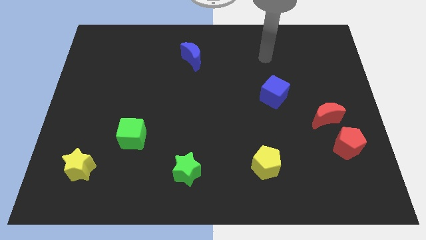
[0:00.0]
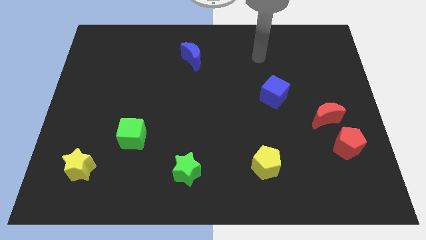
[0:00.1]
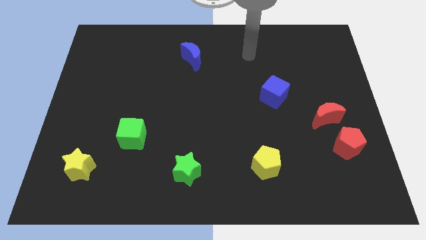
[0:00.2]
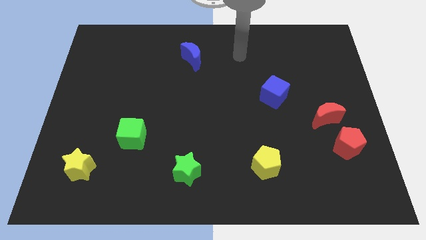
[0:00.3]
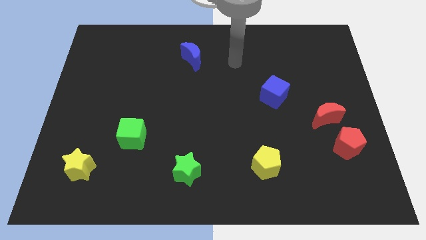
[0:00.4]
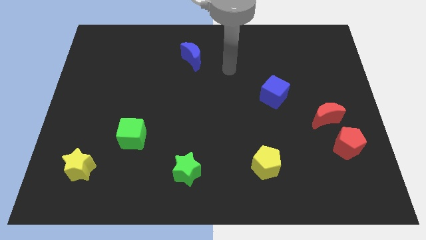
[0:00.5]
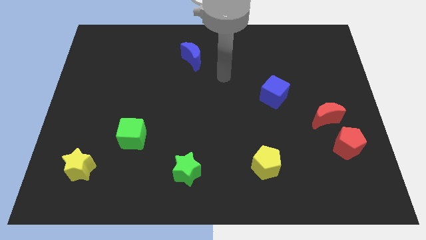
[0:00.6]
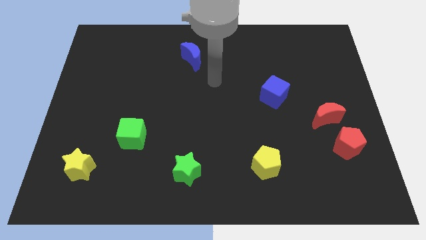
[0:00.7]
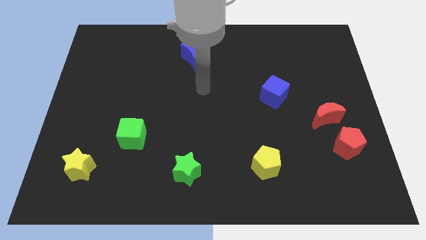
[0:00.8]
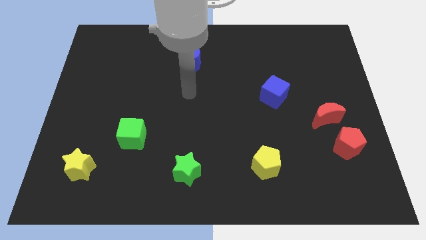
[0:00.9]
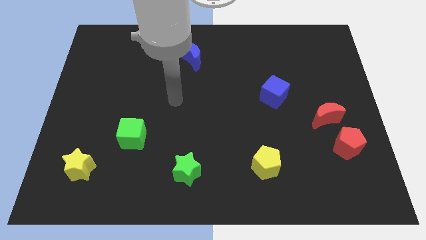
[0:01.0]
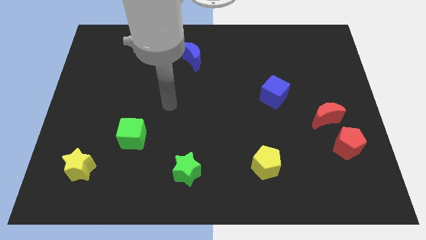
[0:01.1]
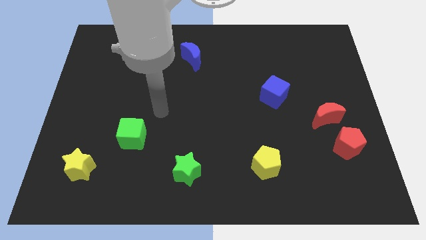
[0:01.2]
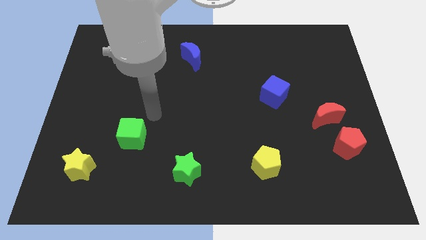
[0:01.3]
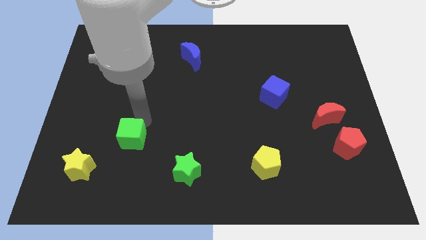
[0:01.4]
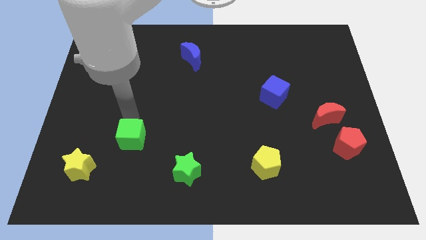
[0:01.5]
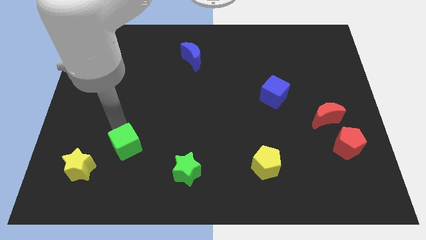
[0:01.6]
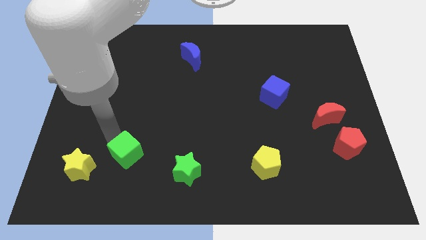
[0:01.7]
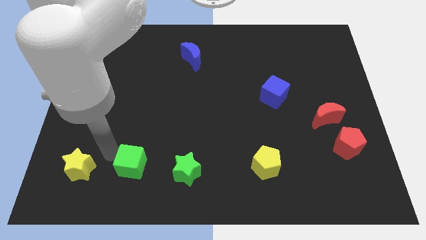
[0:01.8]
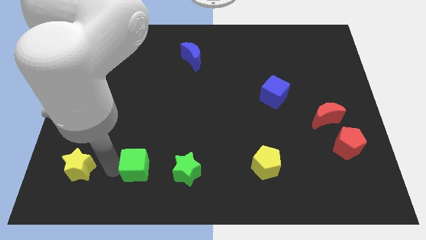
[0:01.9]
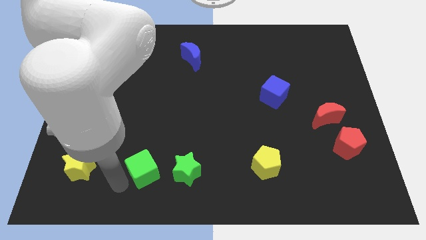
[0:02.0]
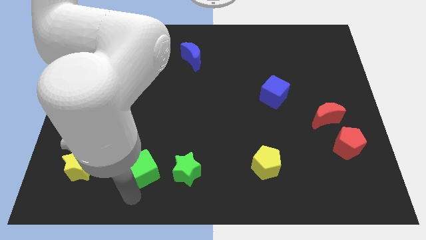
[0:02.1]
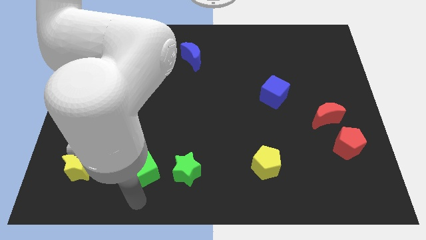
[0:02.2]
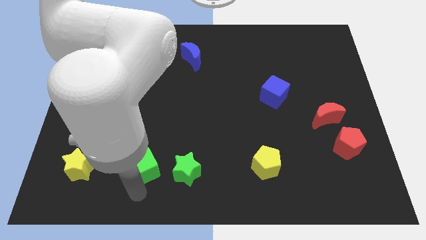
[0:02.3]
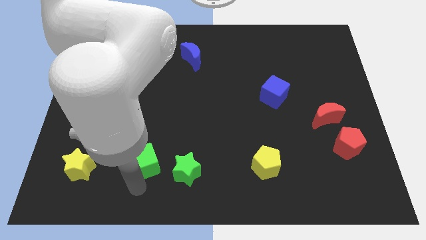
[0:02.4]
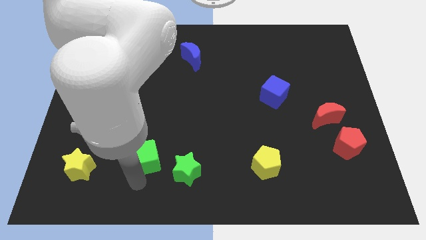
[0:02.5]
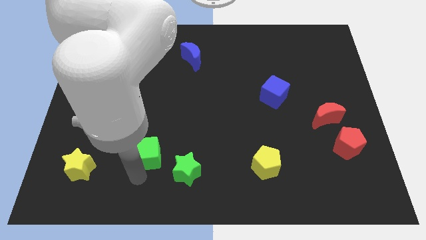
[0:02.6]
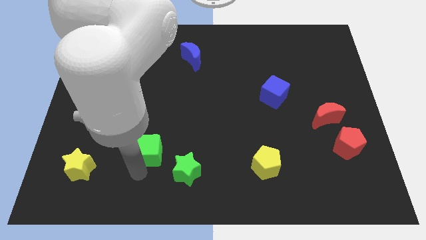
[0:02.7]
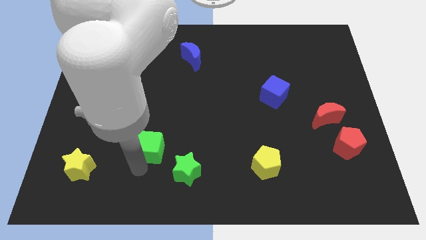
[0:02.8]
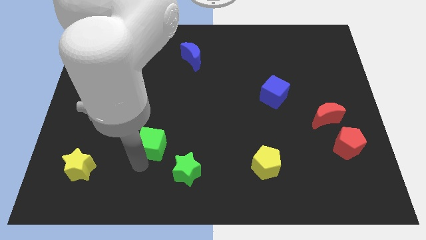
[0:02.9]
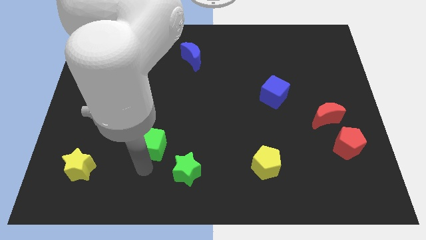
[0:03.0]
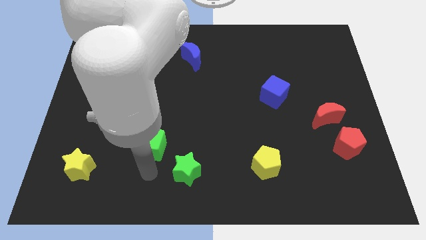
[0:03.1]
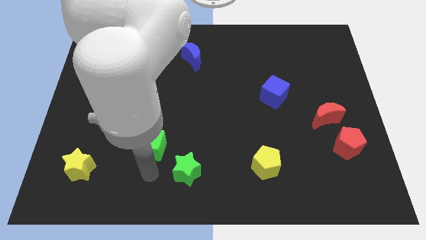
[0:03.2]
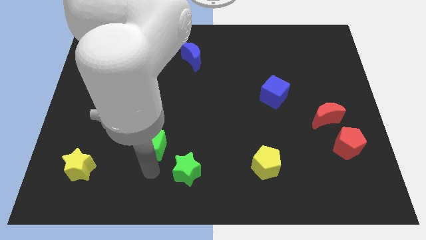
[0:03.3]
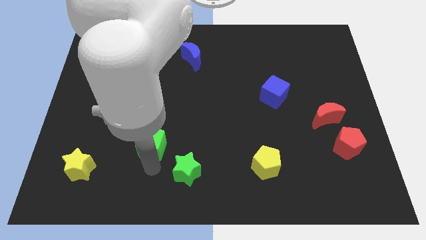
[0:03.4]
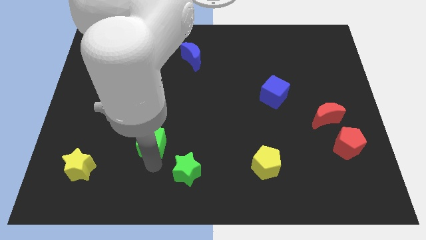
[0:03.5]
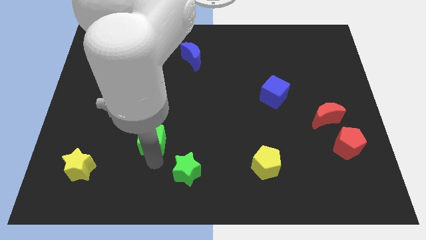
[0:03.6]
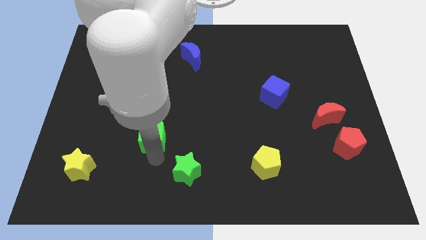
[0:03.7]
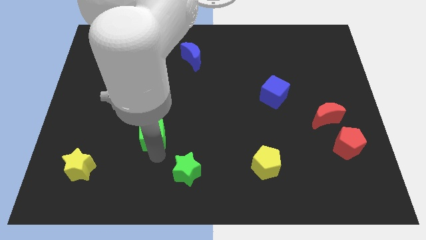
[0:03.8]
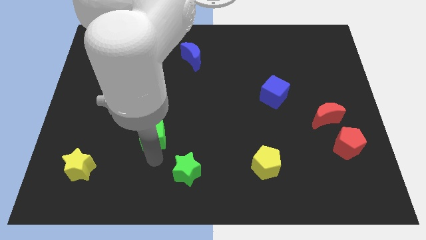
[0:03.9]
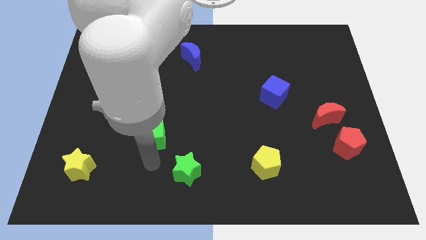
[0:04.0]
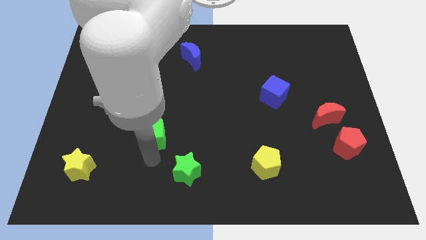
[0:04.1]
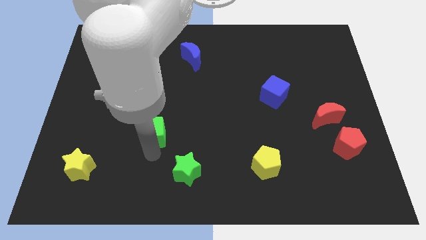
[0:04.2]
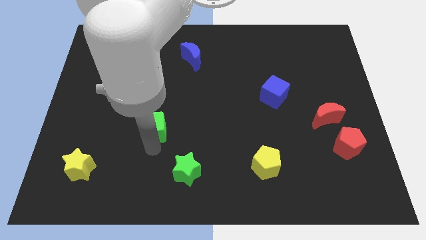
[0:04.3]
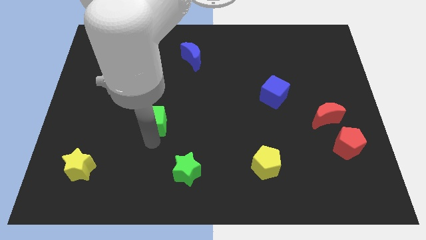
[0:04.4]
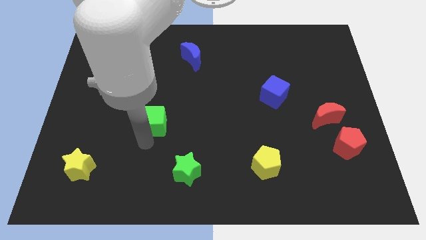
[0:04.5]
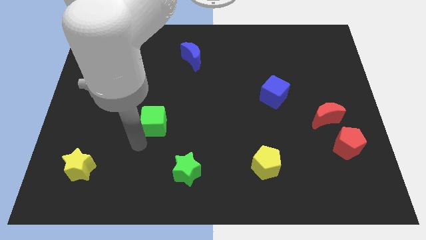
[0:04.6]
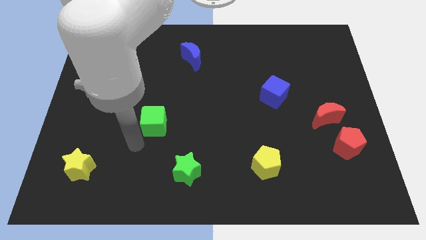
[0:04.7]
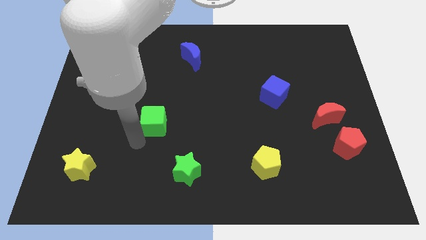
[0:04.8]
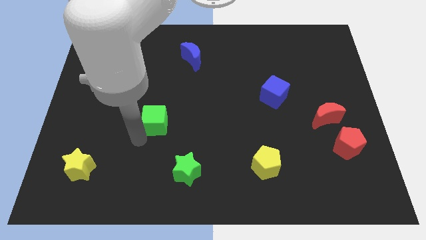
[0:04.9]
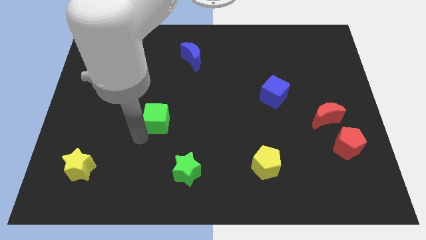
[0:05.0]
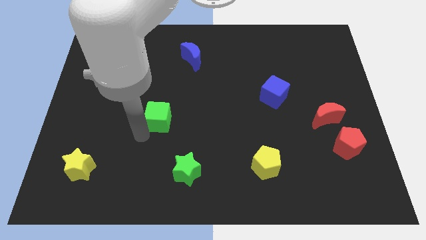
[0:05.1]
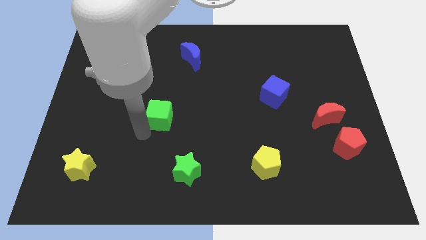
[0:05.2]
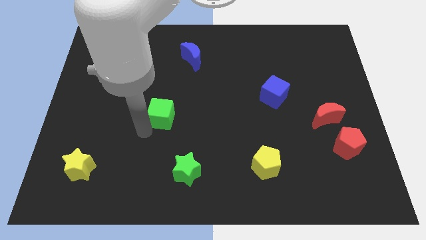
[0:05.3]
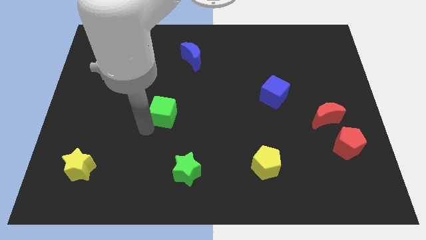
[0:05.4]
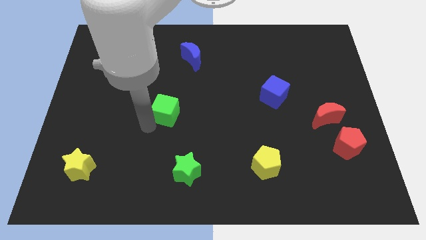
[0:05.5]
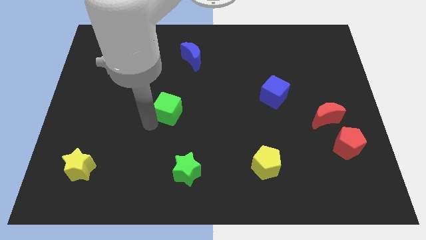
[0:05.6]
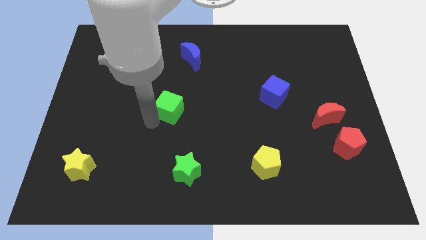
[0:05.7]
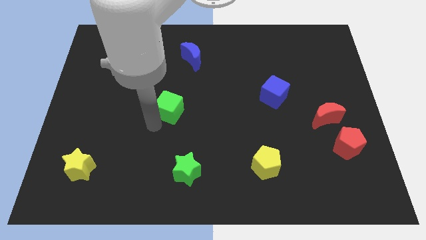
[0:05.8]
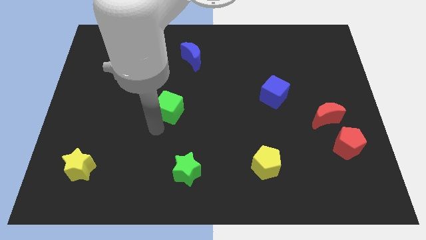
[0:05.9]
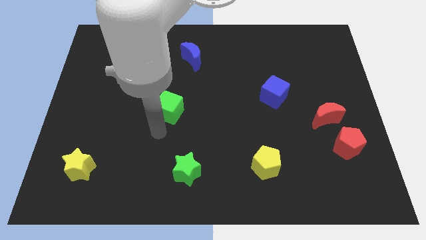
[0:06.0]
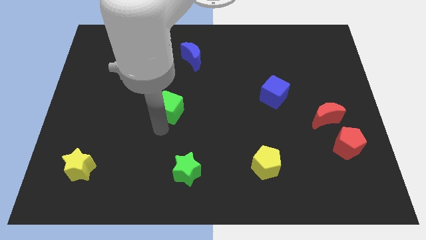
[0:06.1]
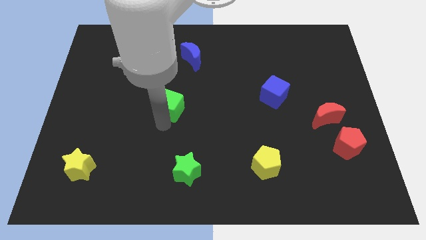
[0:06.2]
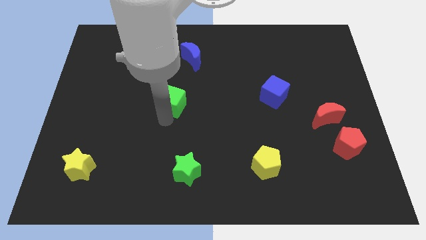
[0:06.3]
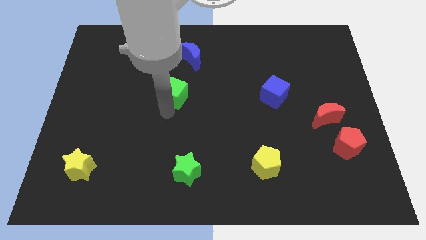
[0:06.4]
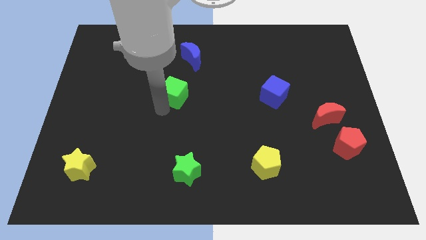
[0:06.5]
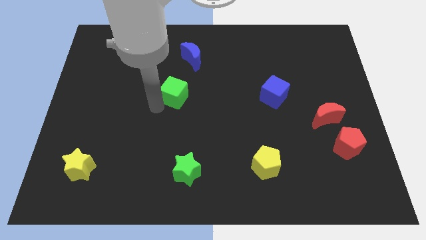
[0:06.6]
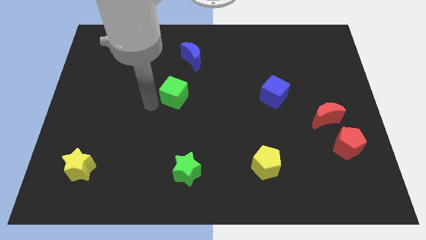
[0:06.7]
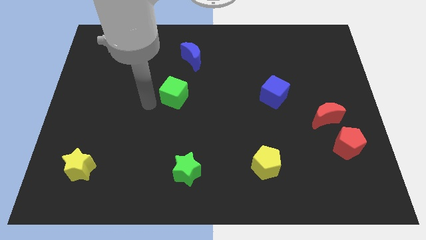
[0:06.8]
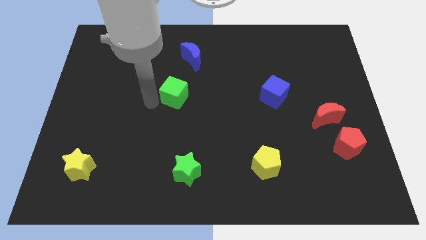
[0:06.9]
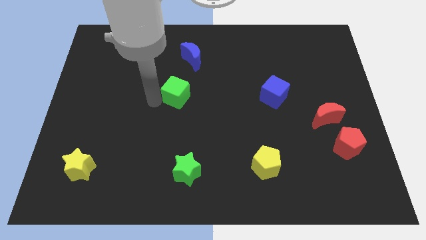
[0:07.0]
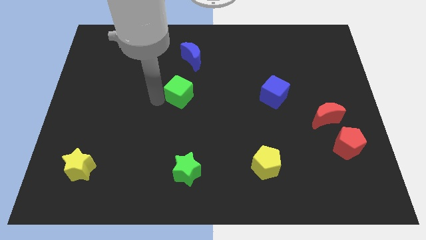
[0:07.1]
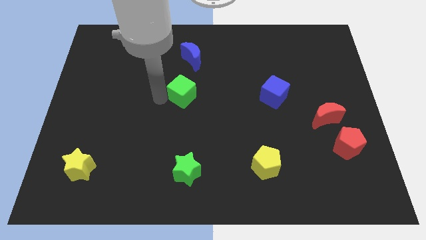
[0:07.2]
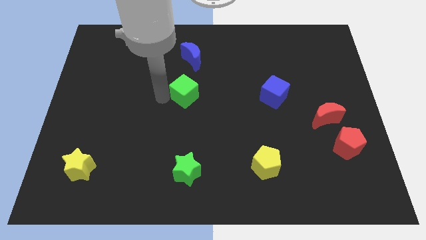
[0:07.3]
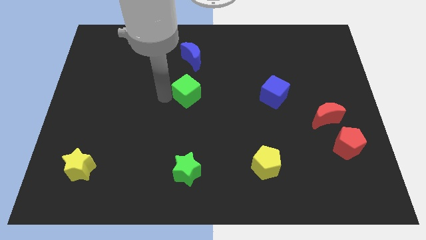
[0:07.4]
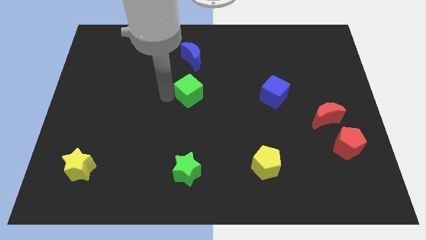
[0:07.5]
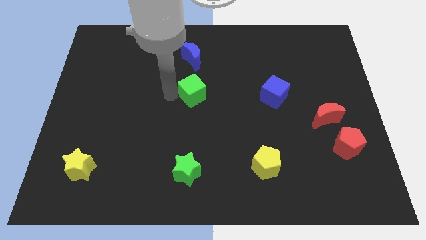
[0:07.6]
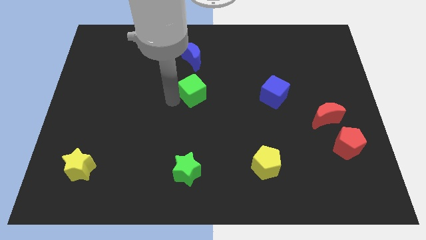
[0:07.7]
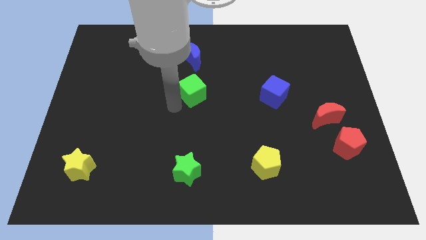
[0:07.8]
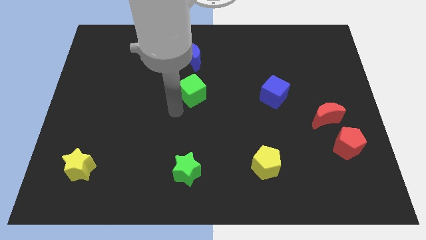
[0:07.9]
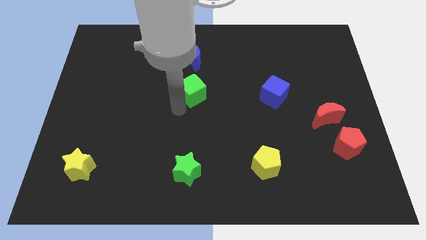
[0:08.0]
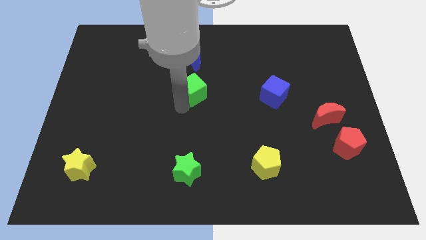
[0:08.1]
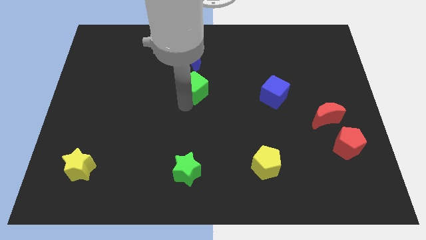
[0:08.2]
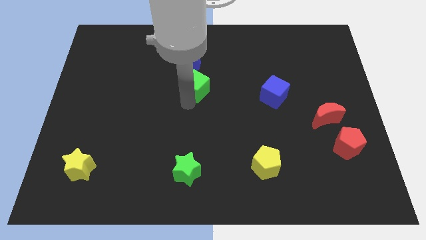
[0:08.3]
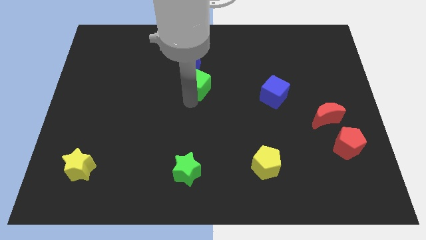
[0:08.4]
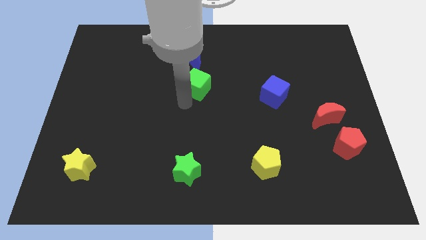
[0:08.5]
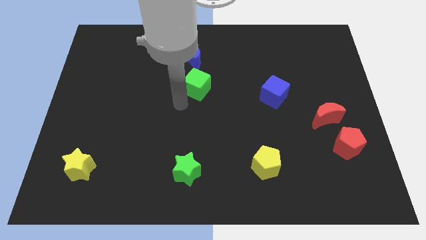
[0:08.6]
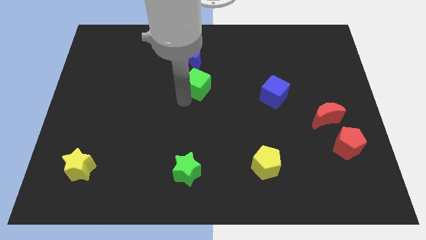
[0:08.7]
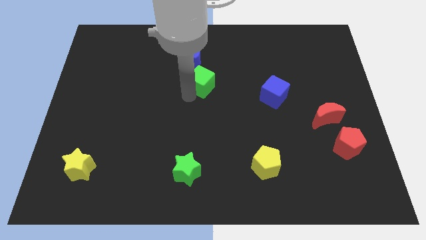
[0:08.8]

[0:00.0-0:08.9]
slide the green cube diagonally down and to the right of the blue moon
